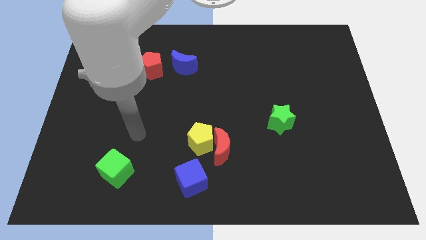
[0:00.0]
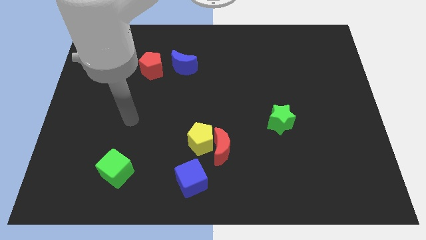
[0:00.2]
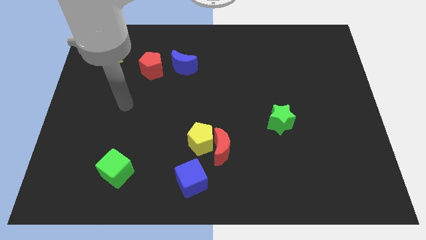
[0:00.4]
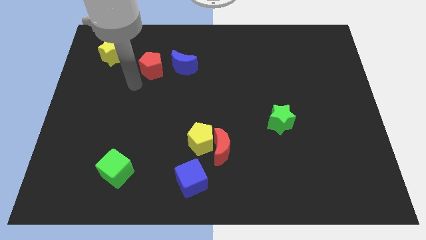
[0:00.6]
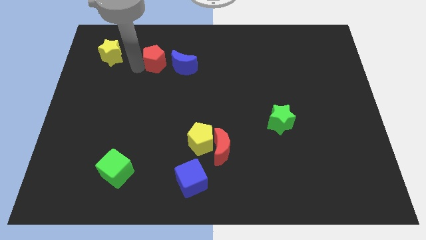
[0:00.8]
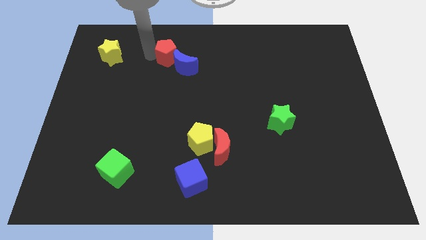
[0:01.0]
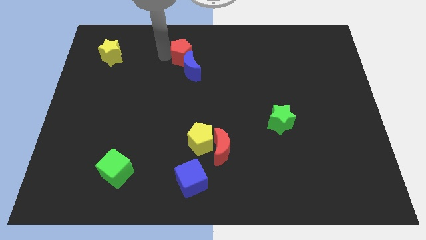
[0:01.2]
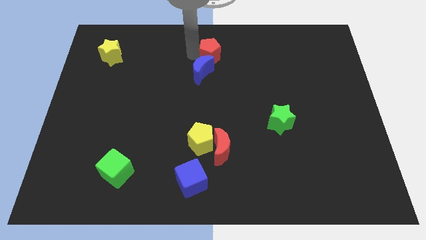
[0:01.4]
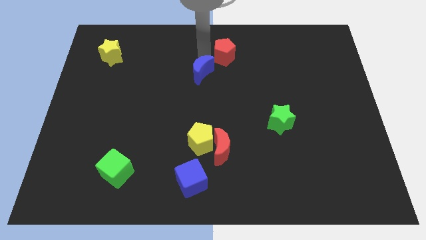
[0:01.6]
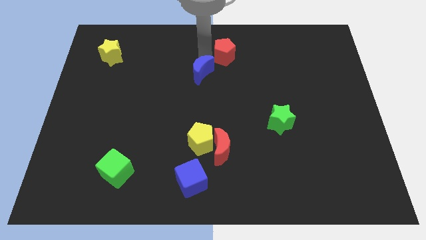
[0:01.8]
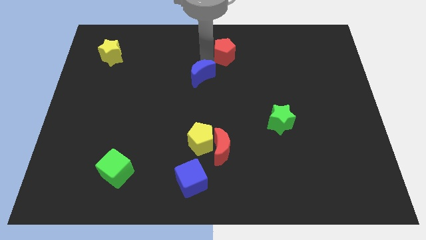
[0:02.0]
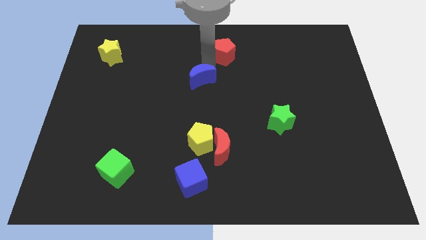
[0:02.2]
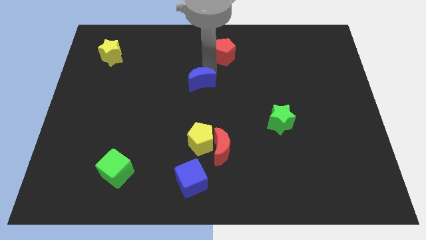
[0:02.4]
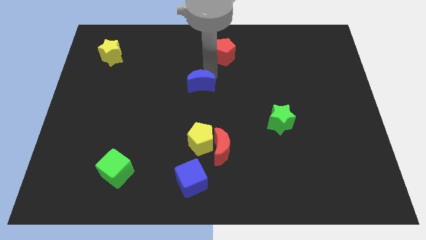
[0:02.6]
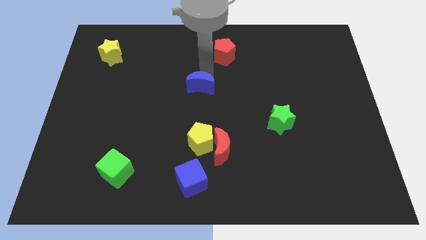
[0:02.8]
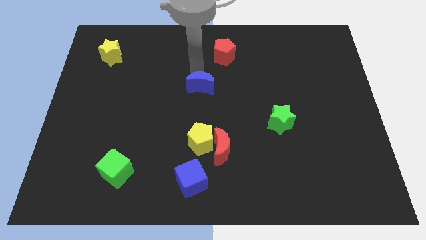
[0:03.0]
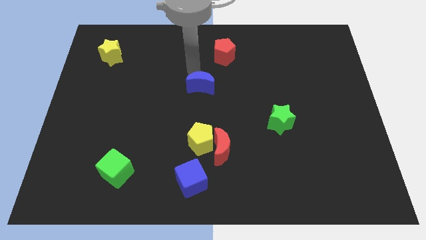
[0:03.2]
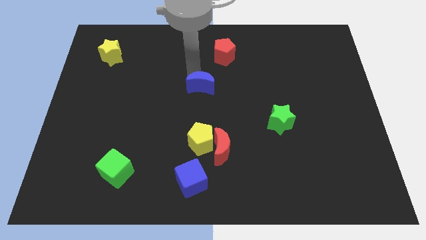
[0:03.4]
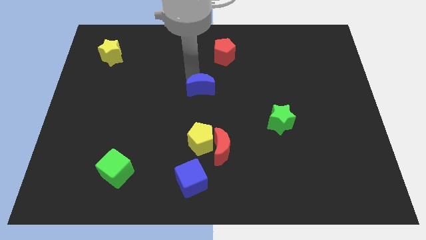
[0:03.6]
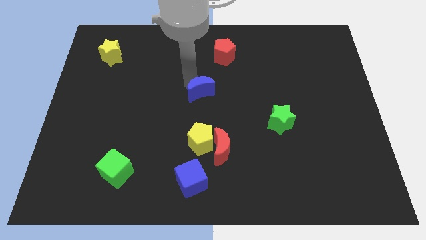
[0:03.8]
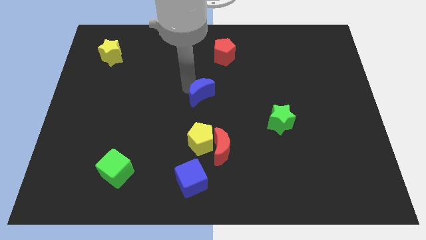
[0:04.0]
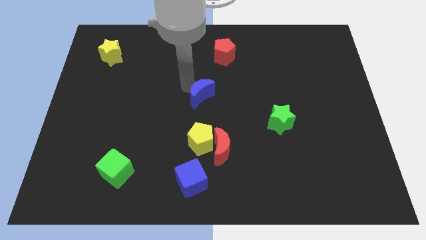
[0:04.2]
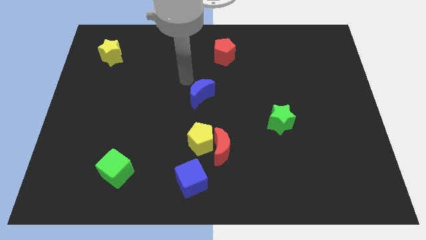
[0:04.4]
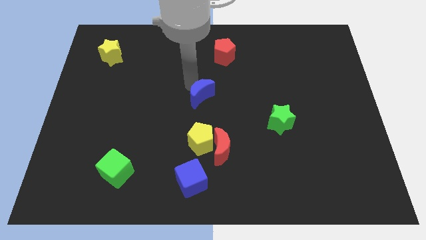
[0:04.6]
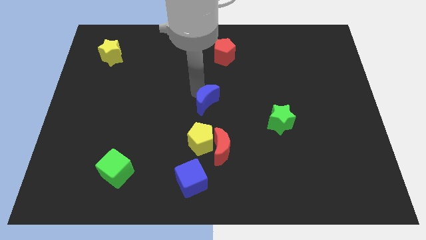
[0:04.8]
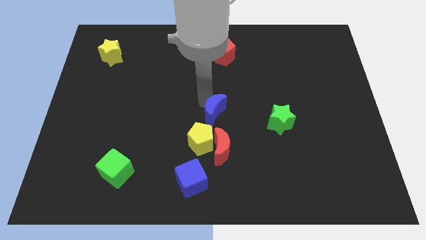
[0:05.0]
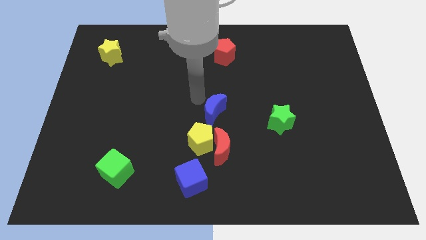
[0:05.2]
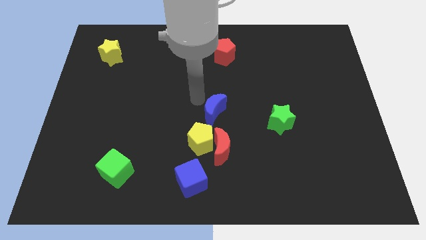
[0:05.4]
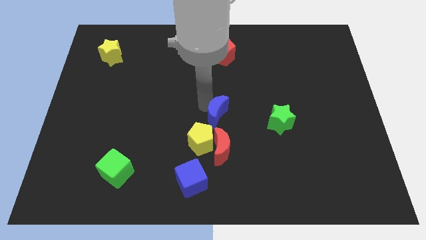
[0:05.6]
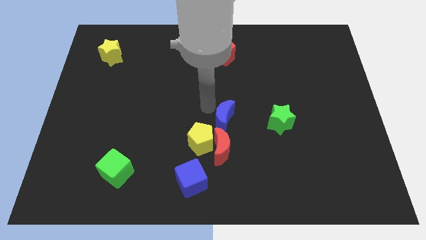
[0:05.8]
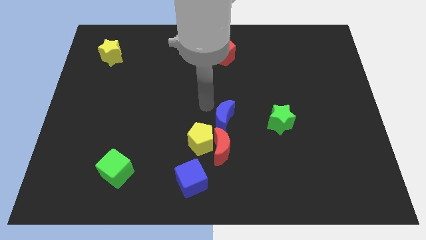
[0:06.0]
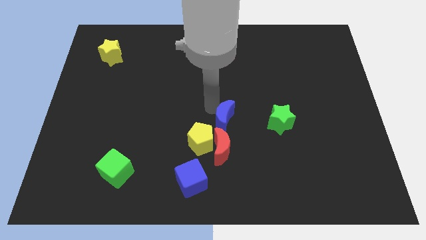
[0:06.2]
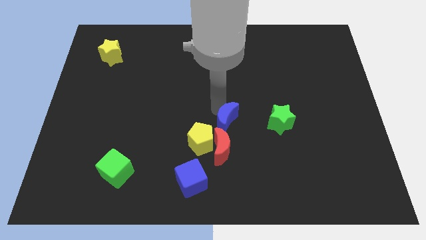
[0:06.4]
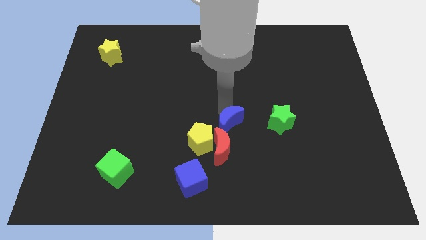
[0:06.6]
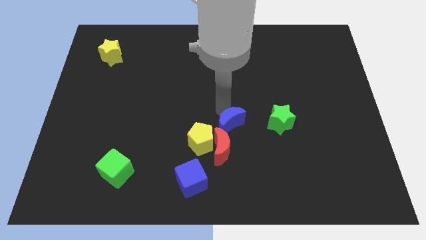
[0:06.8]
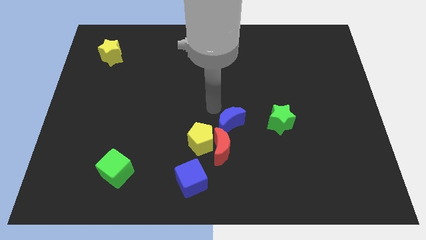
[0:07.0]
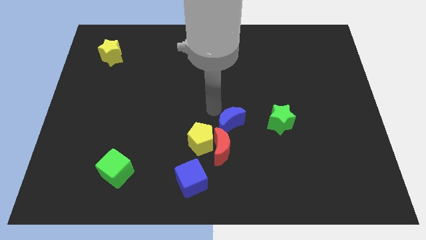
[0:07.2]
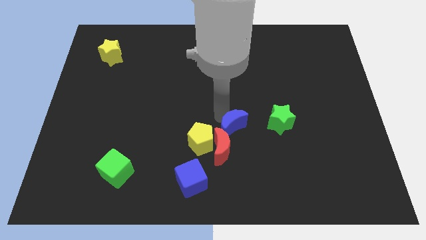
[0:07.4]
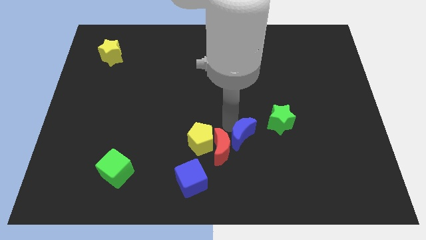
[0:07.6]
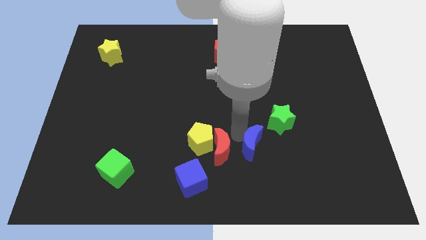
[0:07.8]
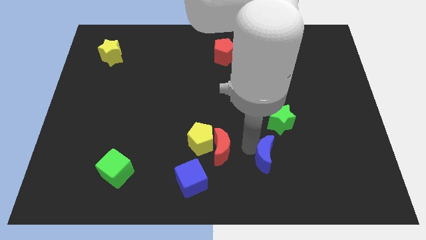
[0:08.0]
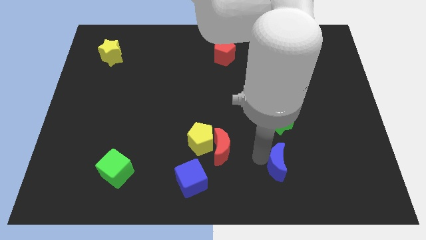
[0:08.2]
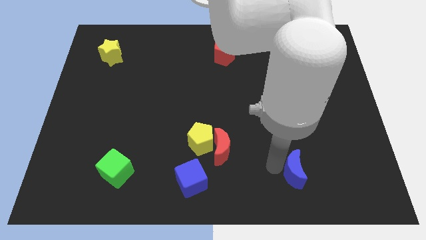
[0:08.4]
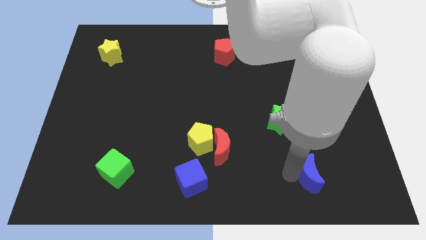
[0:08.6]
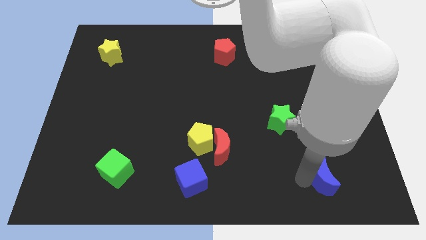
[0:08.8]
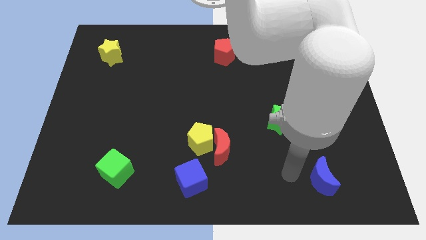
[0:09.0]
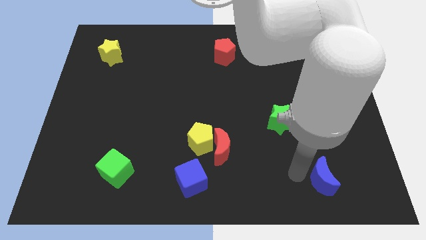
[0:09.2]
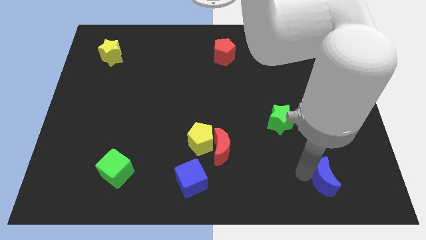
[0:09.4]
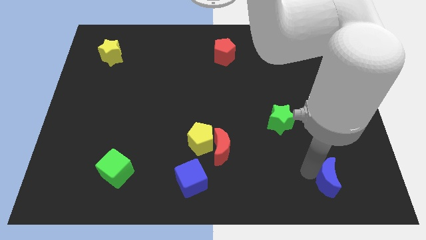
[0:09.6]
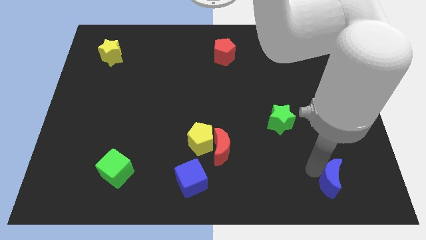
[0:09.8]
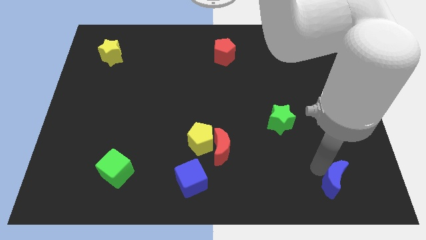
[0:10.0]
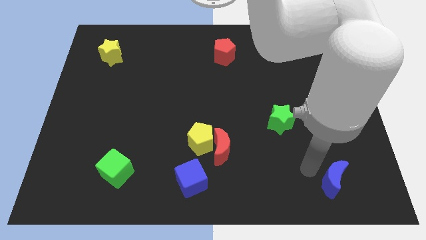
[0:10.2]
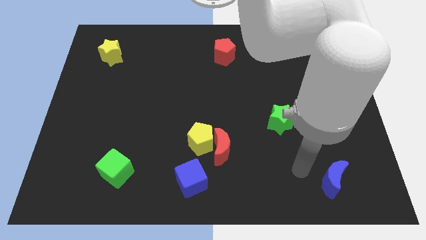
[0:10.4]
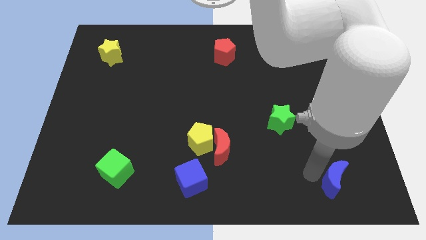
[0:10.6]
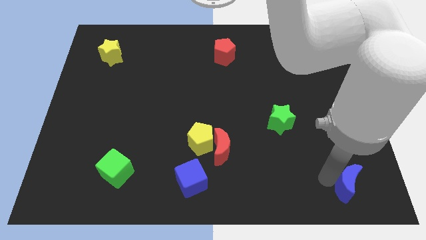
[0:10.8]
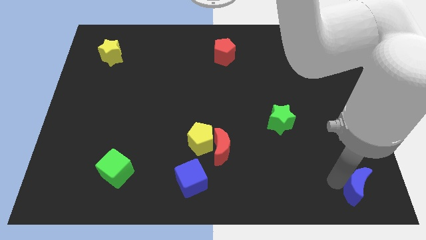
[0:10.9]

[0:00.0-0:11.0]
move the blue moon to the bottom right corner

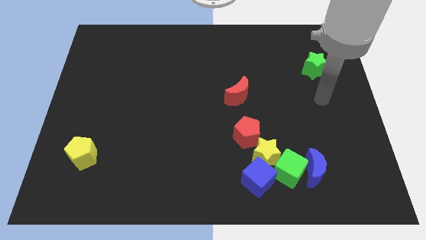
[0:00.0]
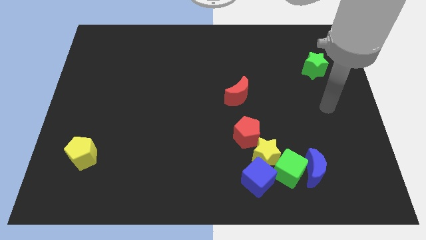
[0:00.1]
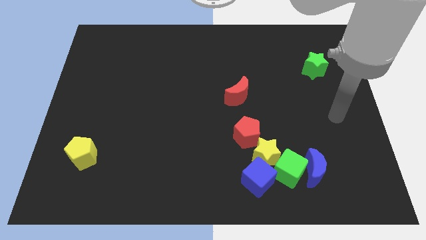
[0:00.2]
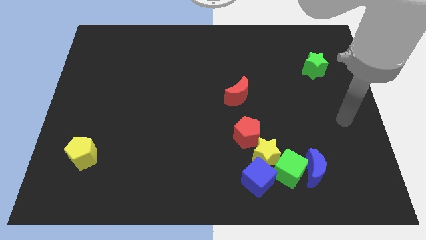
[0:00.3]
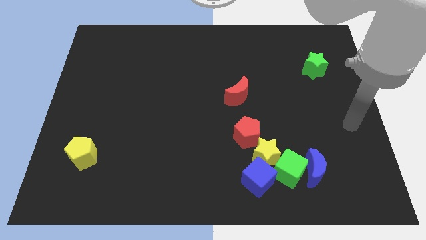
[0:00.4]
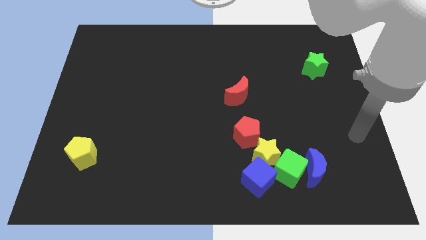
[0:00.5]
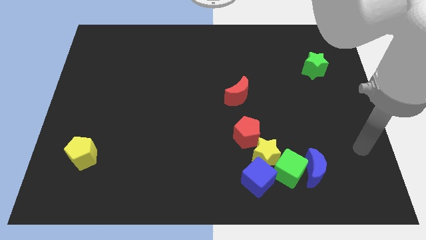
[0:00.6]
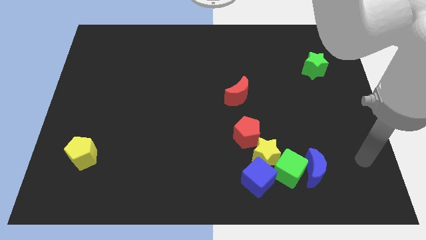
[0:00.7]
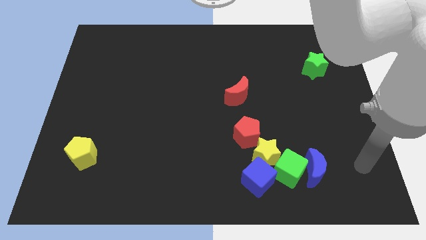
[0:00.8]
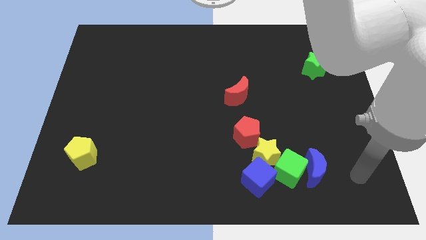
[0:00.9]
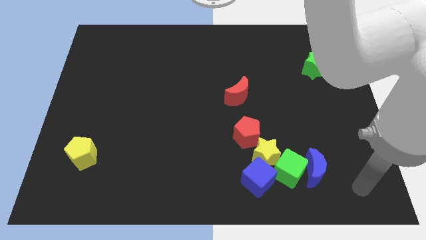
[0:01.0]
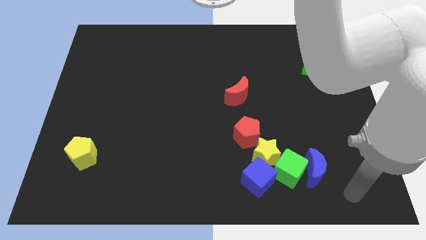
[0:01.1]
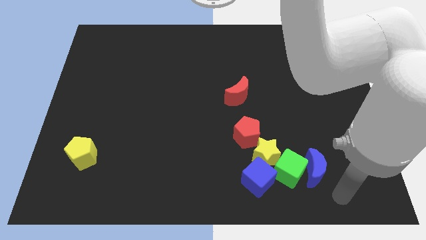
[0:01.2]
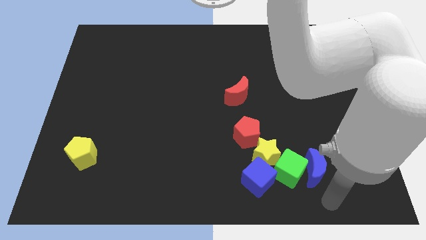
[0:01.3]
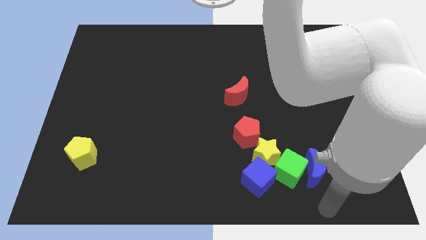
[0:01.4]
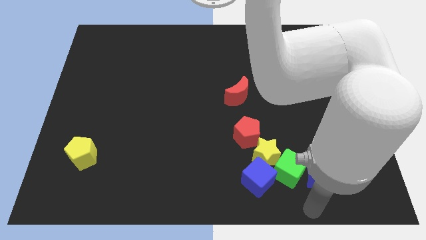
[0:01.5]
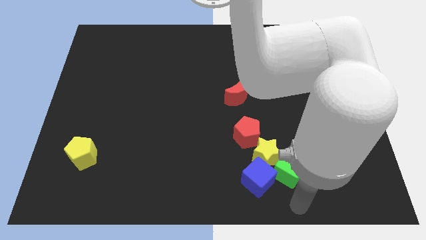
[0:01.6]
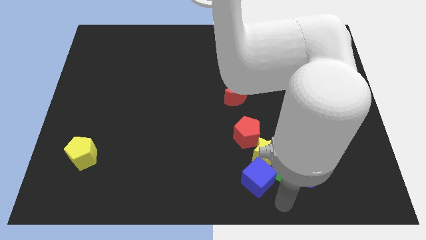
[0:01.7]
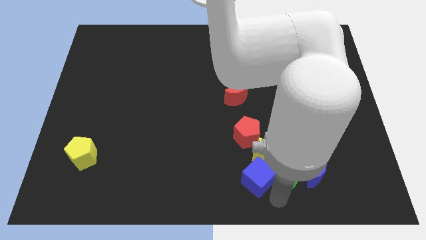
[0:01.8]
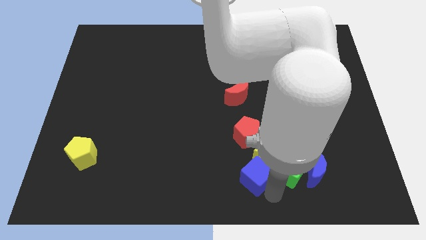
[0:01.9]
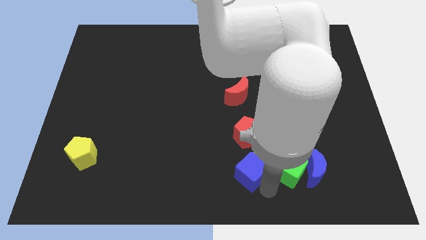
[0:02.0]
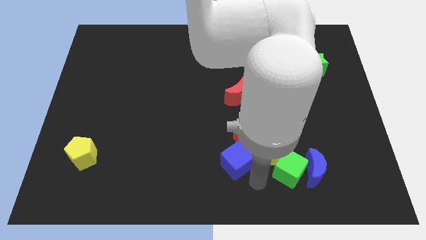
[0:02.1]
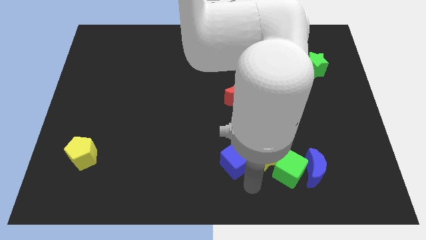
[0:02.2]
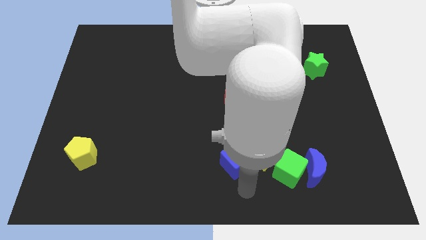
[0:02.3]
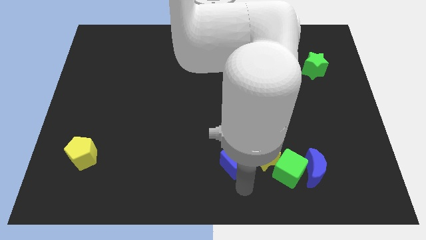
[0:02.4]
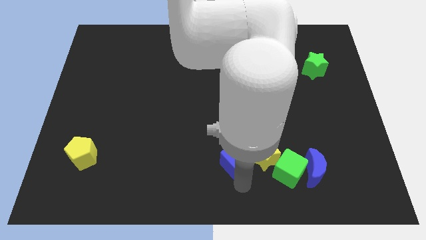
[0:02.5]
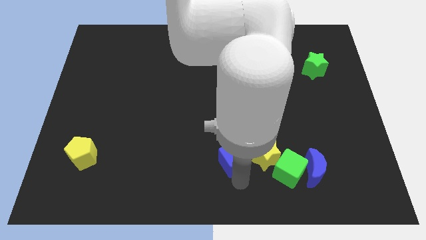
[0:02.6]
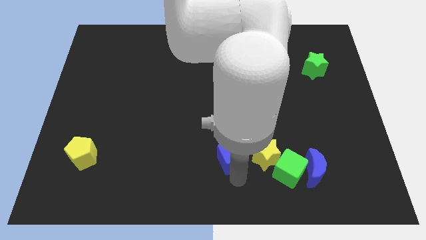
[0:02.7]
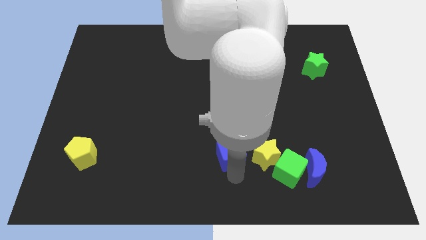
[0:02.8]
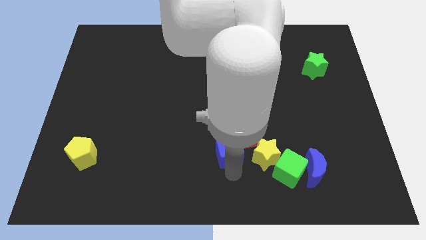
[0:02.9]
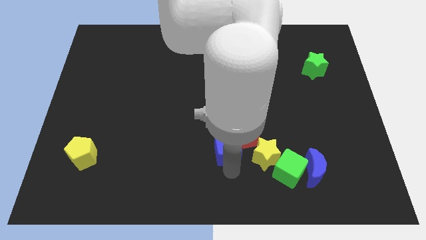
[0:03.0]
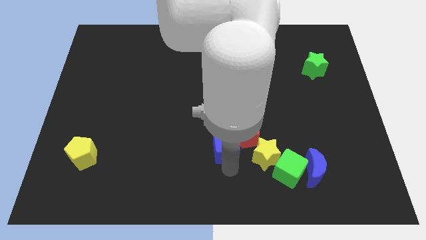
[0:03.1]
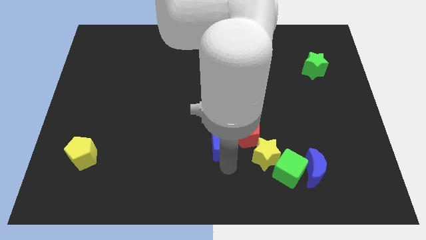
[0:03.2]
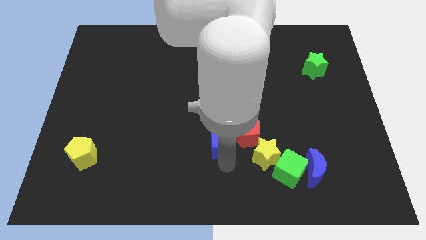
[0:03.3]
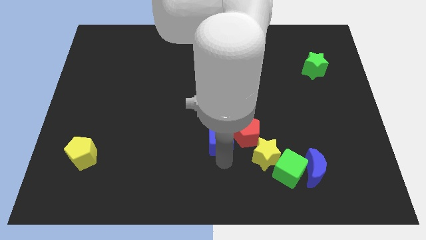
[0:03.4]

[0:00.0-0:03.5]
push the blue cube to the middle of the board
